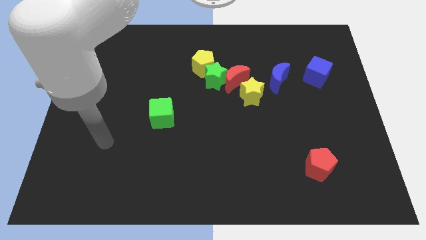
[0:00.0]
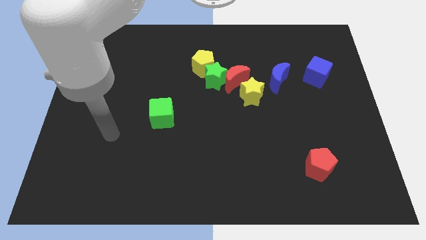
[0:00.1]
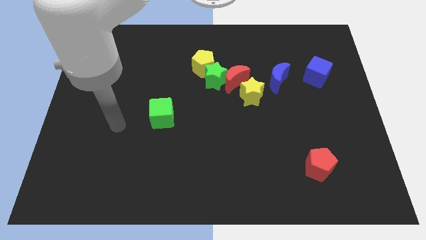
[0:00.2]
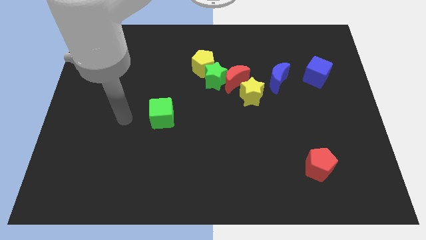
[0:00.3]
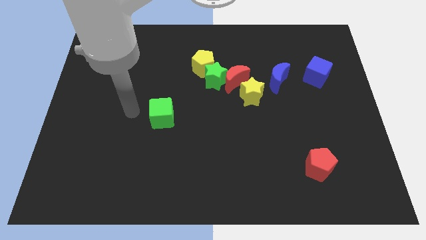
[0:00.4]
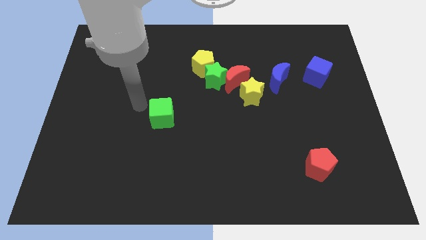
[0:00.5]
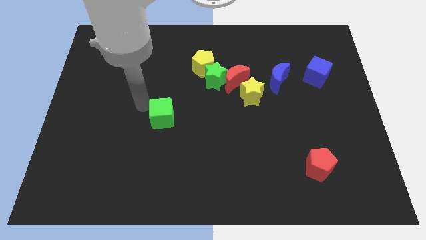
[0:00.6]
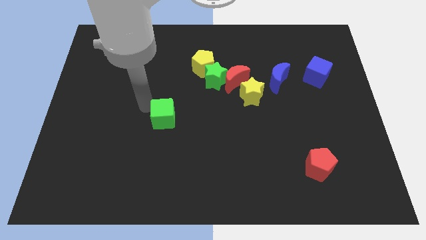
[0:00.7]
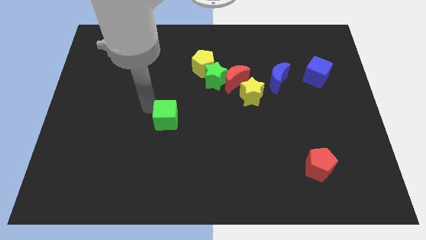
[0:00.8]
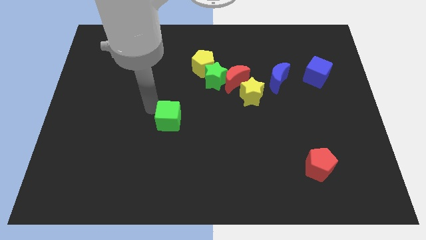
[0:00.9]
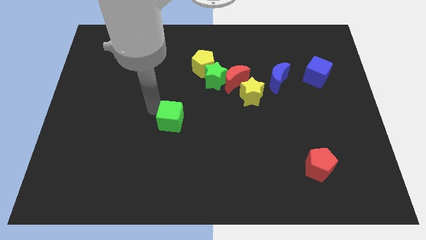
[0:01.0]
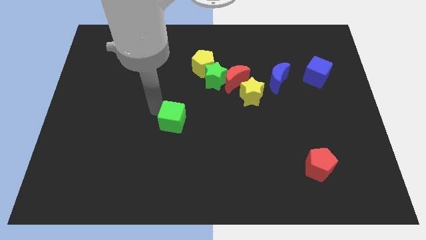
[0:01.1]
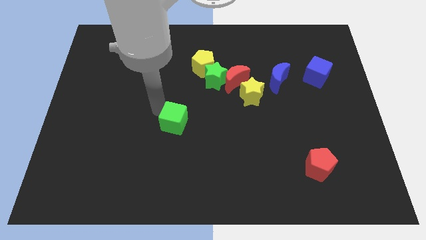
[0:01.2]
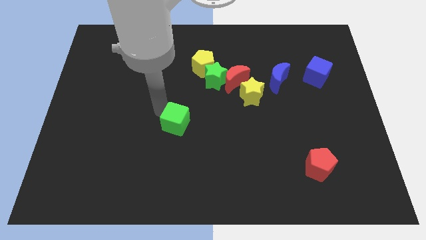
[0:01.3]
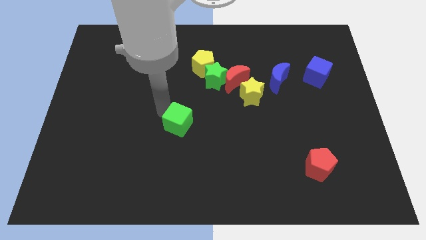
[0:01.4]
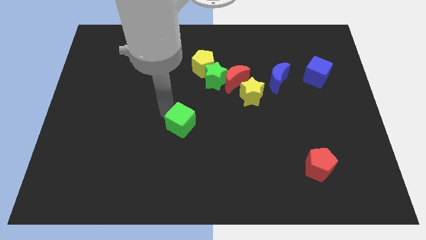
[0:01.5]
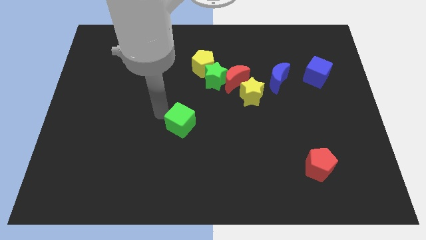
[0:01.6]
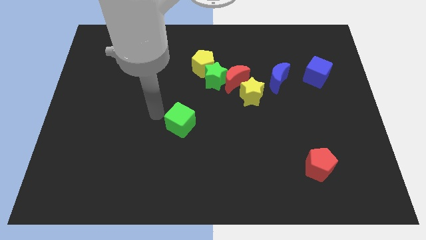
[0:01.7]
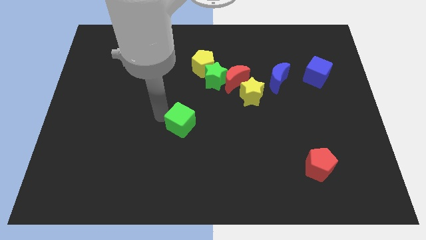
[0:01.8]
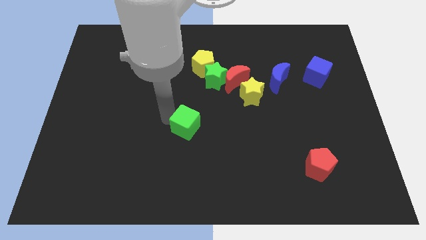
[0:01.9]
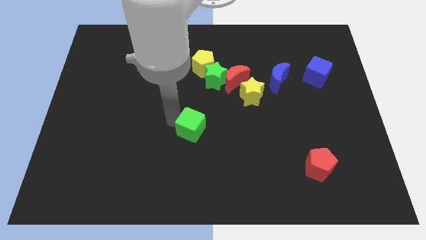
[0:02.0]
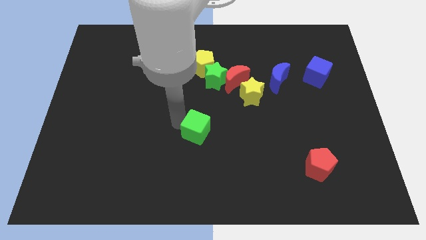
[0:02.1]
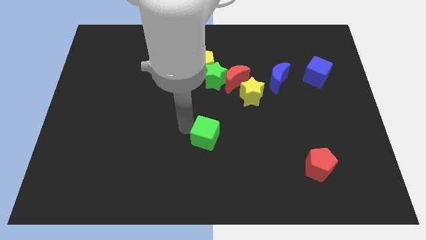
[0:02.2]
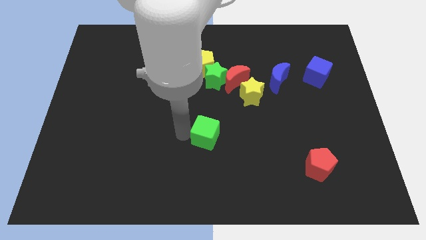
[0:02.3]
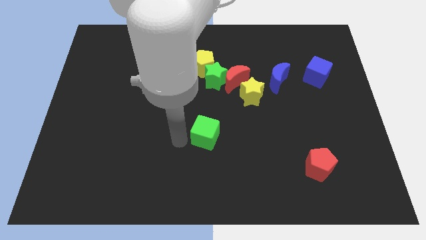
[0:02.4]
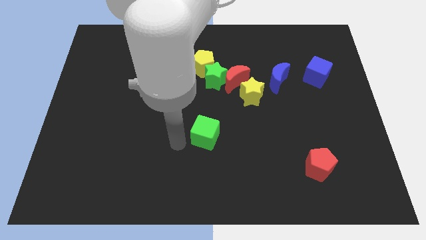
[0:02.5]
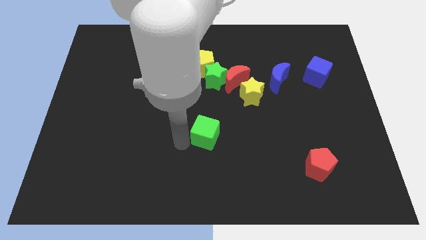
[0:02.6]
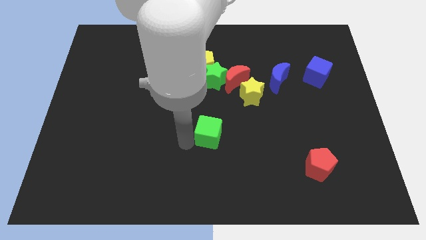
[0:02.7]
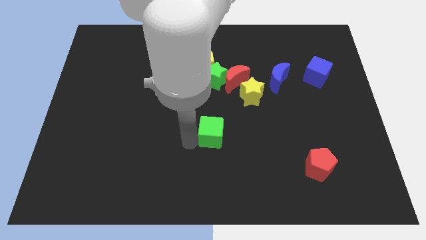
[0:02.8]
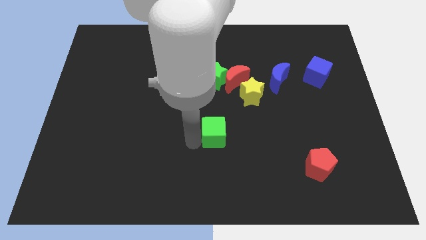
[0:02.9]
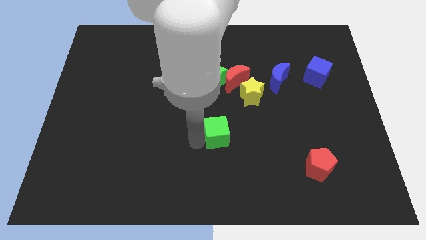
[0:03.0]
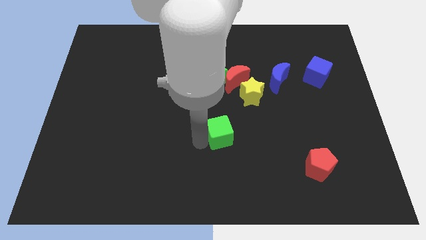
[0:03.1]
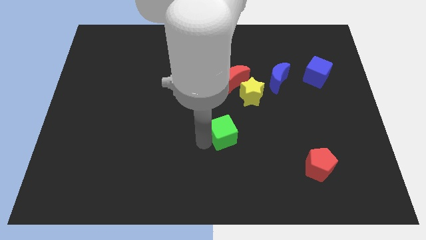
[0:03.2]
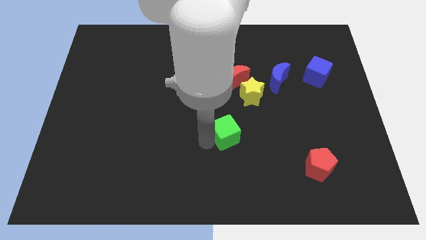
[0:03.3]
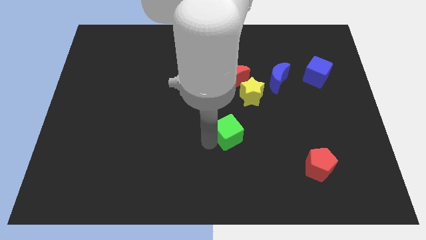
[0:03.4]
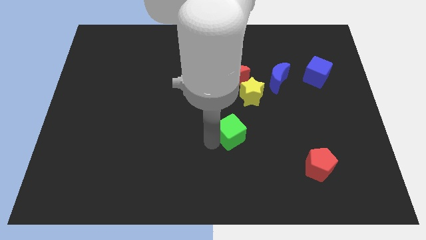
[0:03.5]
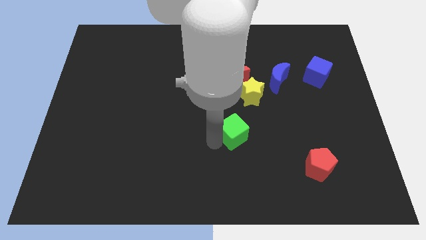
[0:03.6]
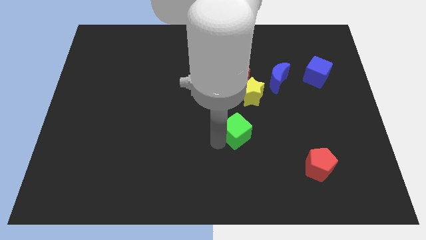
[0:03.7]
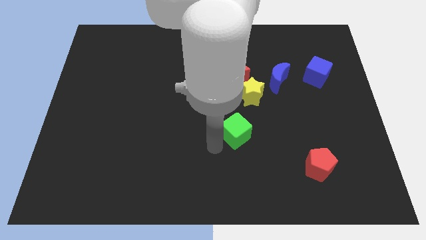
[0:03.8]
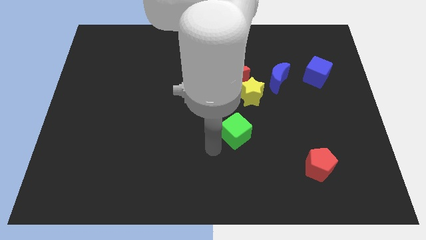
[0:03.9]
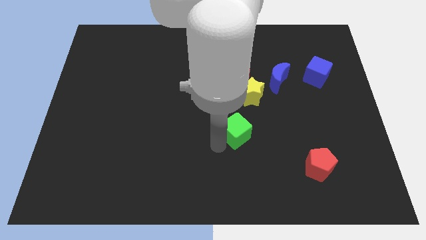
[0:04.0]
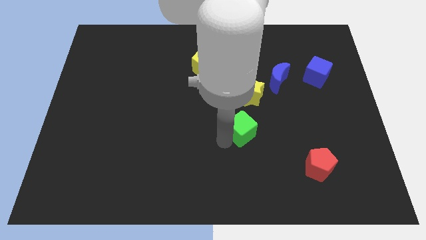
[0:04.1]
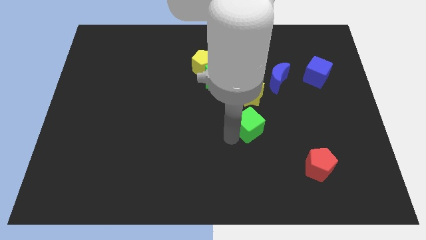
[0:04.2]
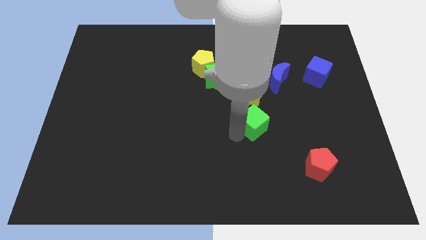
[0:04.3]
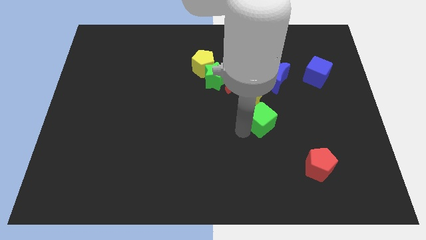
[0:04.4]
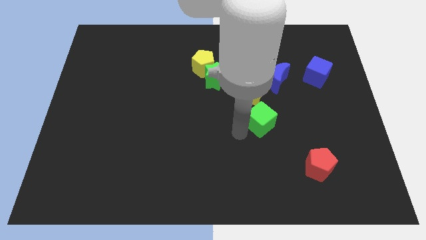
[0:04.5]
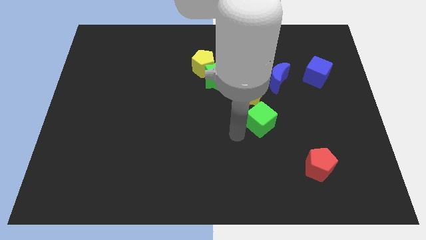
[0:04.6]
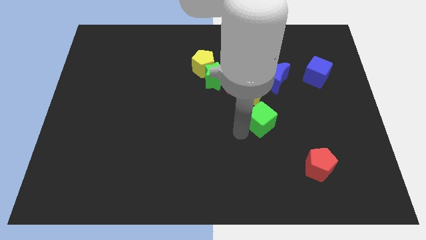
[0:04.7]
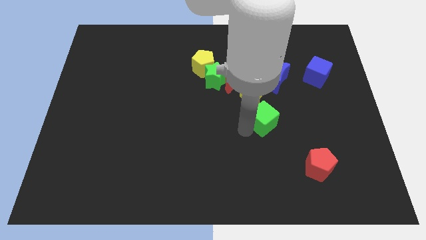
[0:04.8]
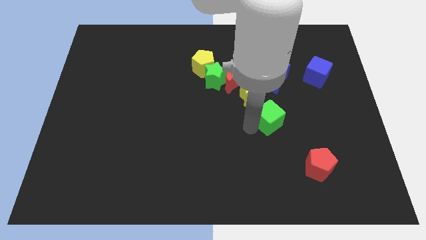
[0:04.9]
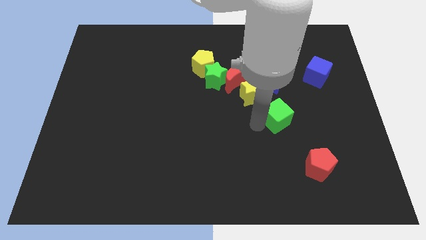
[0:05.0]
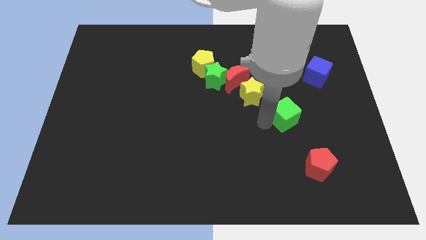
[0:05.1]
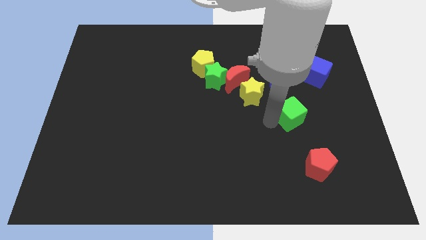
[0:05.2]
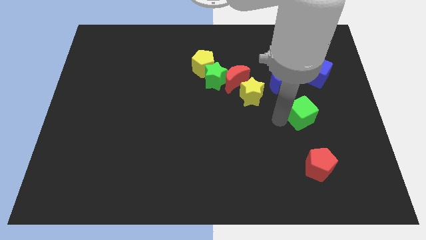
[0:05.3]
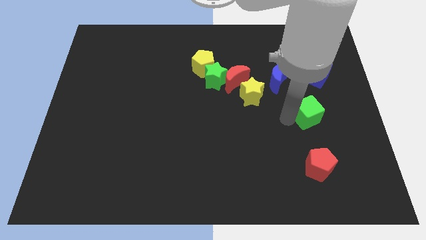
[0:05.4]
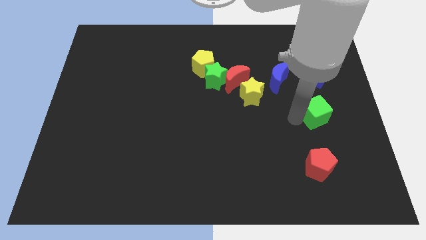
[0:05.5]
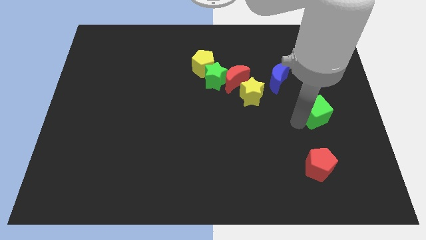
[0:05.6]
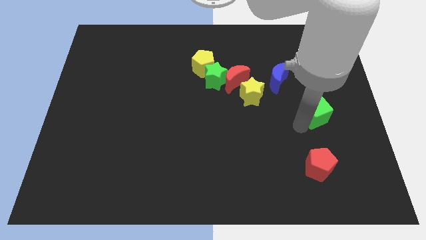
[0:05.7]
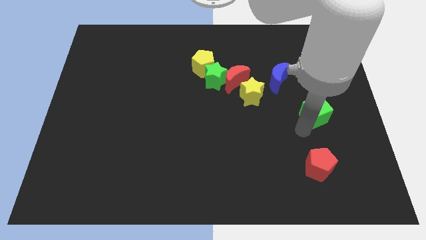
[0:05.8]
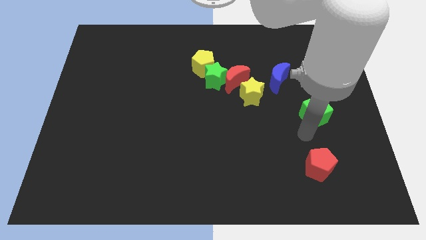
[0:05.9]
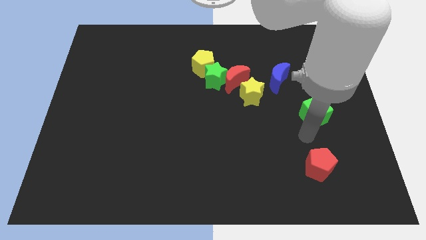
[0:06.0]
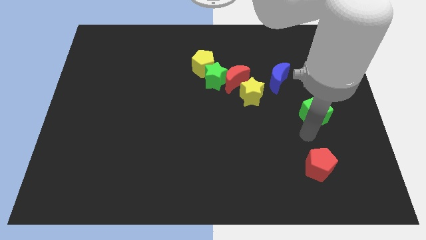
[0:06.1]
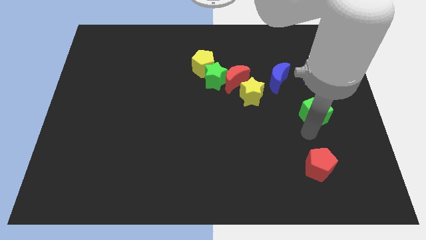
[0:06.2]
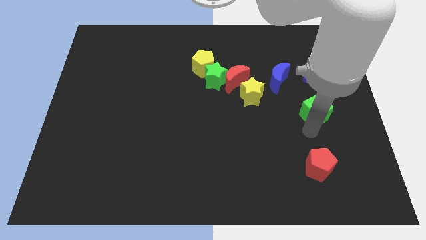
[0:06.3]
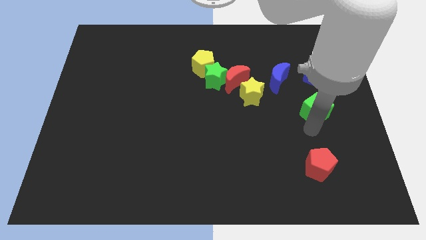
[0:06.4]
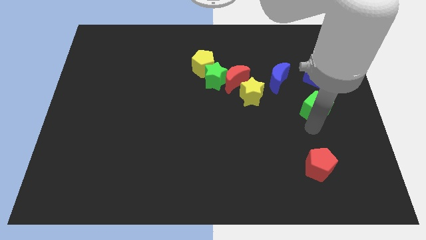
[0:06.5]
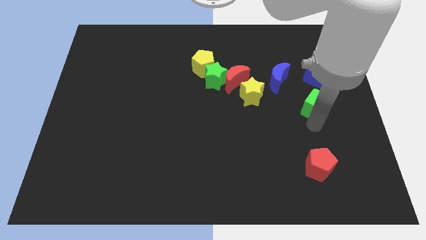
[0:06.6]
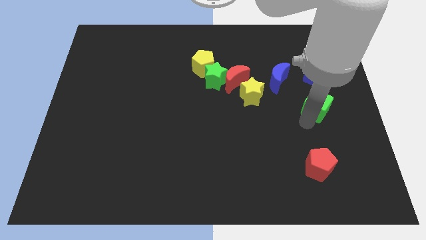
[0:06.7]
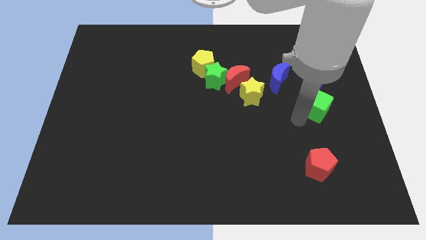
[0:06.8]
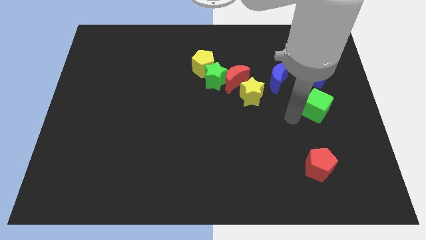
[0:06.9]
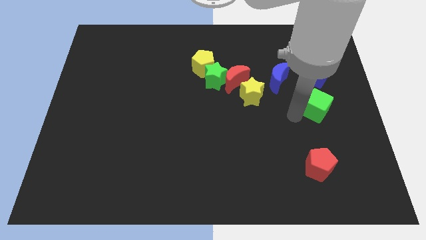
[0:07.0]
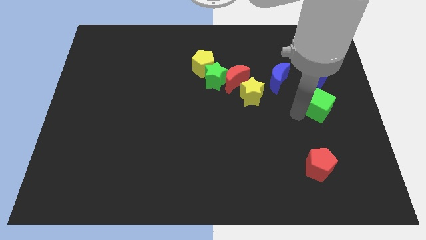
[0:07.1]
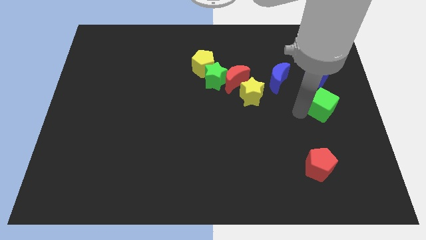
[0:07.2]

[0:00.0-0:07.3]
put the green cube to the right side
